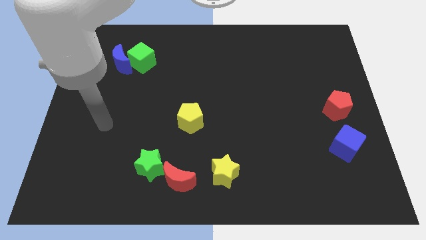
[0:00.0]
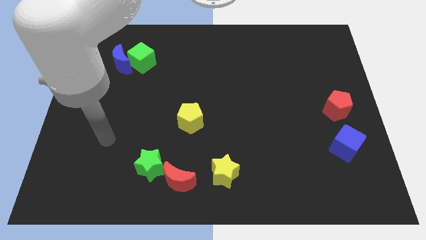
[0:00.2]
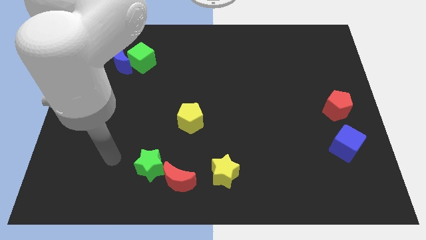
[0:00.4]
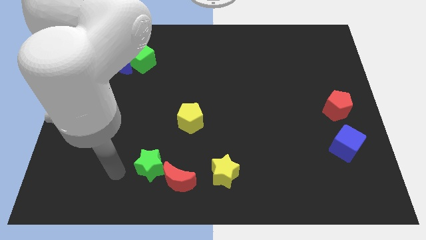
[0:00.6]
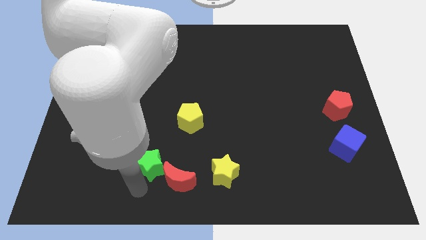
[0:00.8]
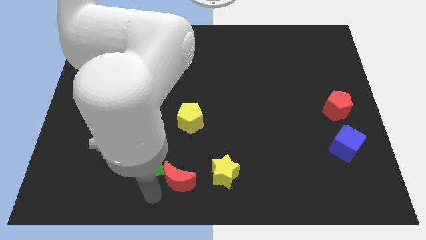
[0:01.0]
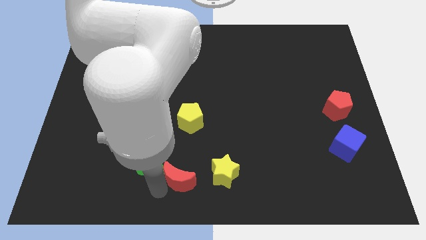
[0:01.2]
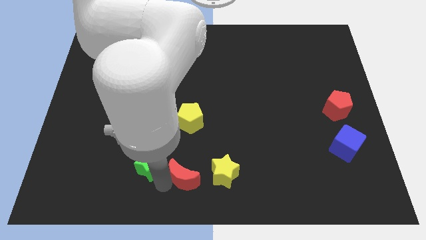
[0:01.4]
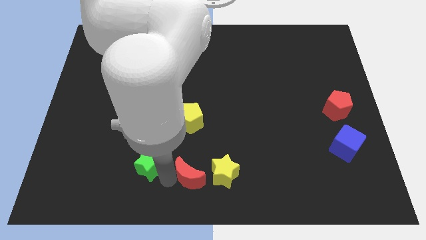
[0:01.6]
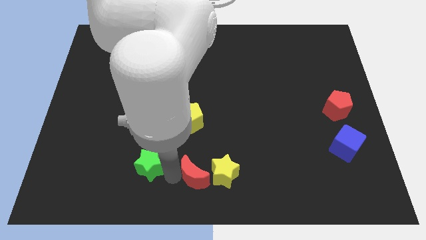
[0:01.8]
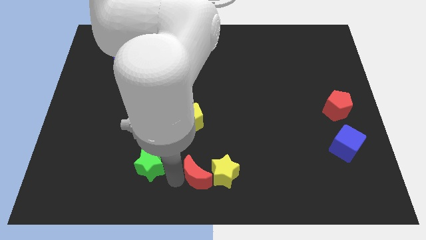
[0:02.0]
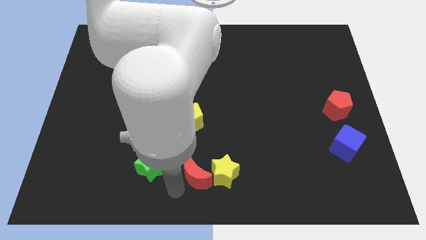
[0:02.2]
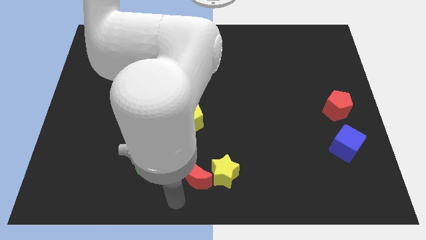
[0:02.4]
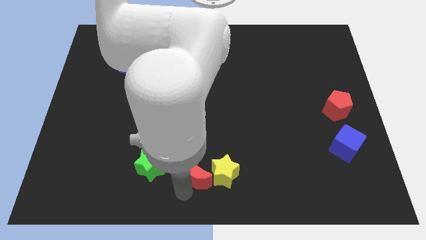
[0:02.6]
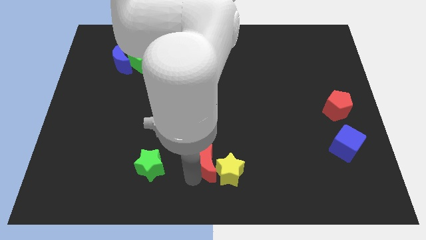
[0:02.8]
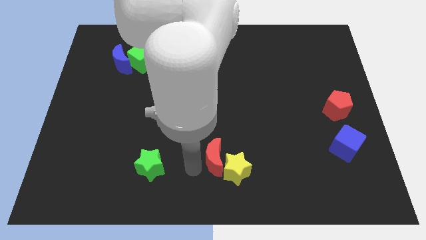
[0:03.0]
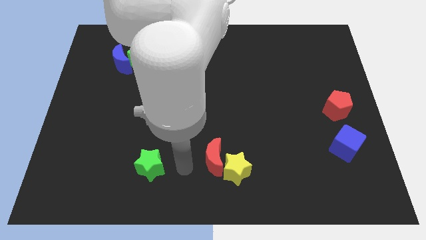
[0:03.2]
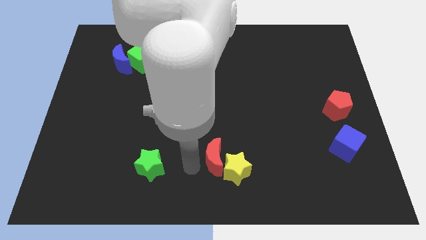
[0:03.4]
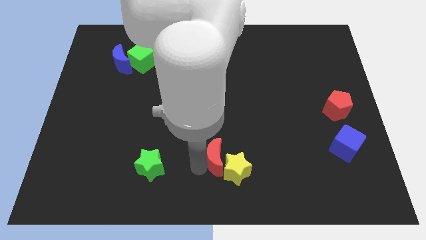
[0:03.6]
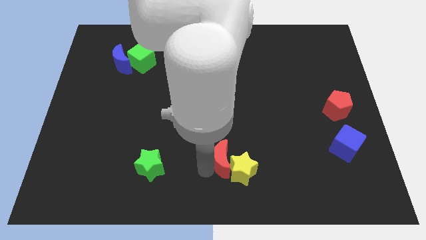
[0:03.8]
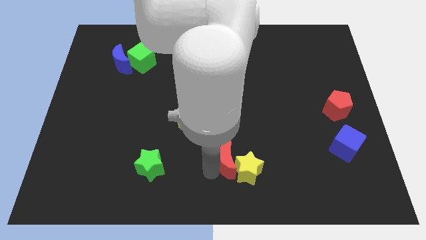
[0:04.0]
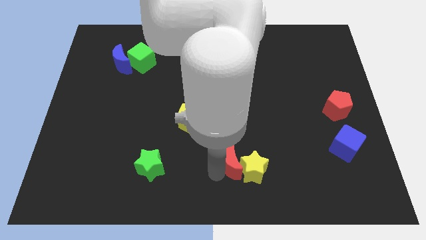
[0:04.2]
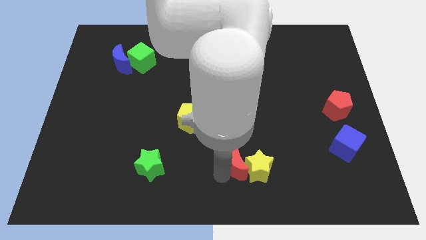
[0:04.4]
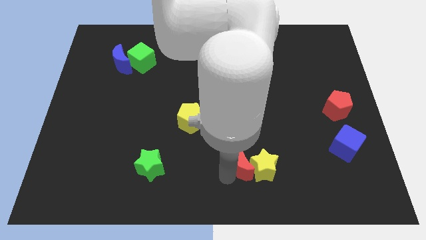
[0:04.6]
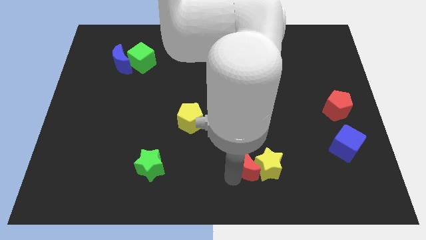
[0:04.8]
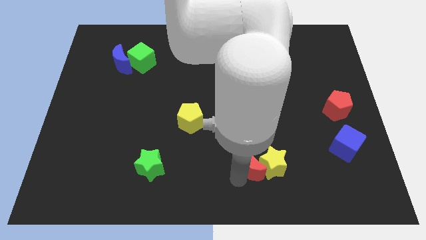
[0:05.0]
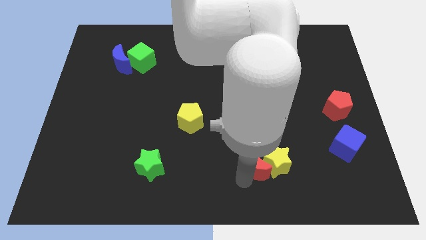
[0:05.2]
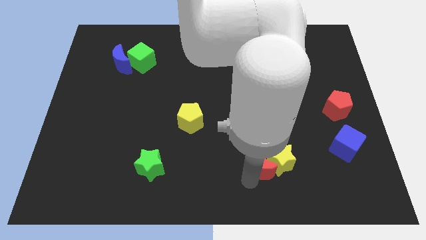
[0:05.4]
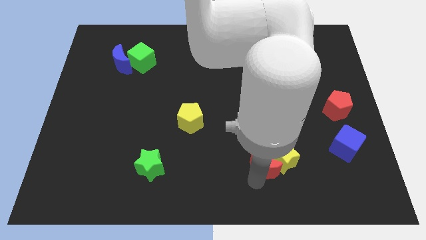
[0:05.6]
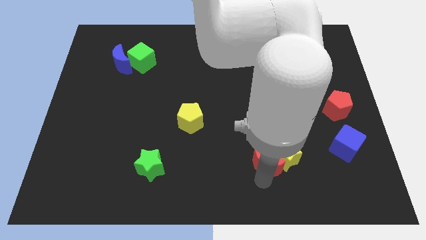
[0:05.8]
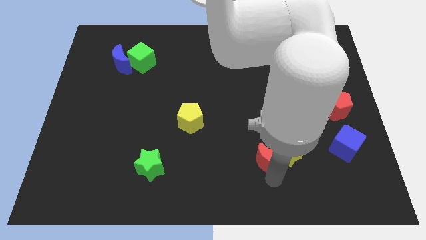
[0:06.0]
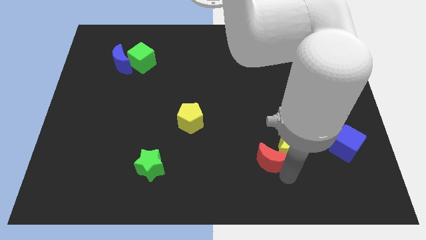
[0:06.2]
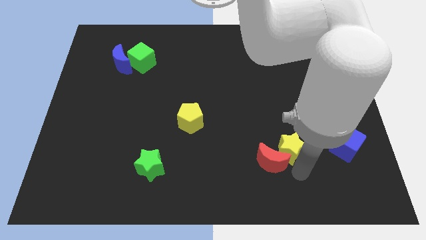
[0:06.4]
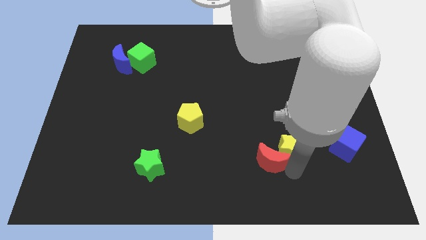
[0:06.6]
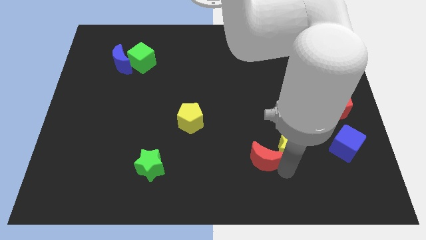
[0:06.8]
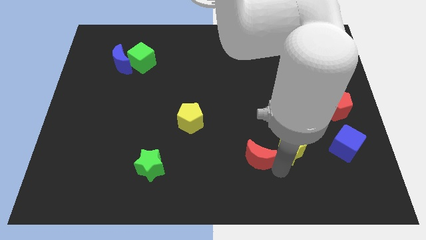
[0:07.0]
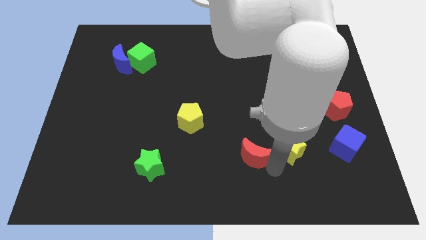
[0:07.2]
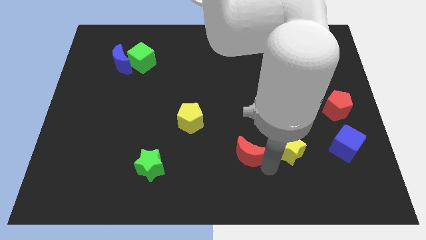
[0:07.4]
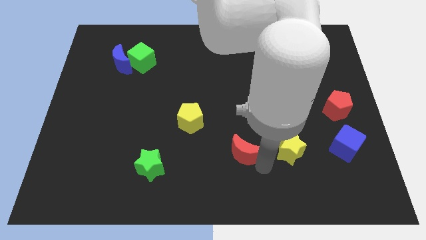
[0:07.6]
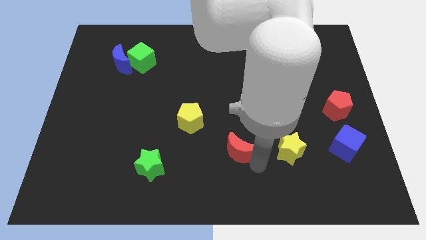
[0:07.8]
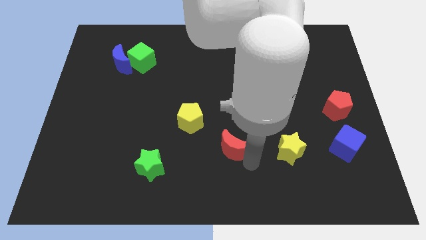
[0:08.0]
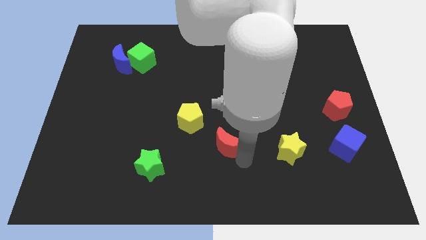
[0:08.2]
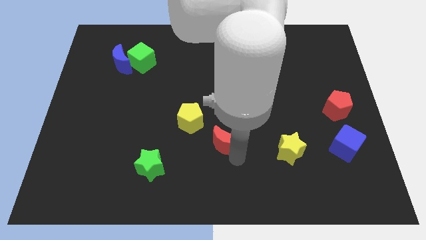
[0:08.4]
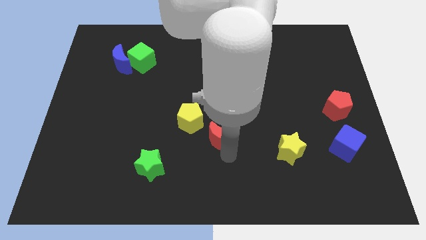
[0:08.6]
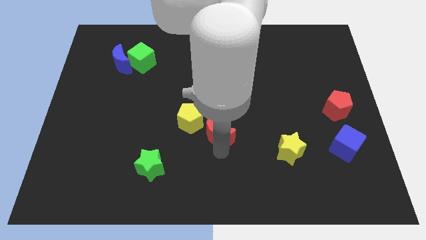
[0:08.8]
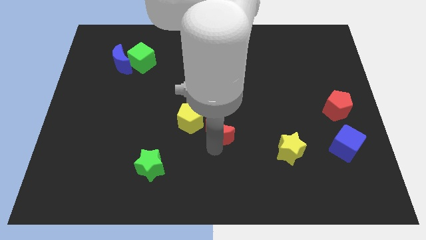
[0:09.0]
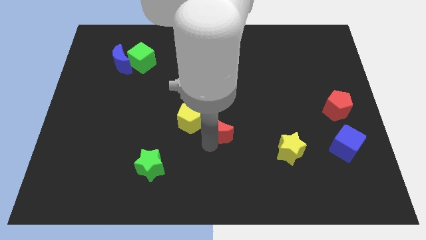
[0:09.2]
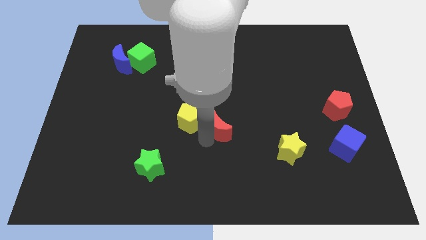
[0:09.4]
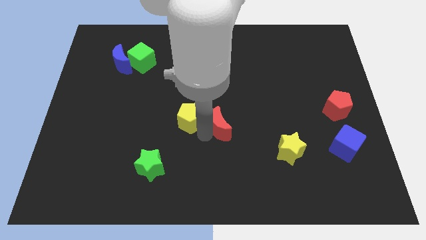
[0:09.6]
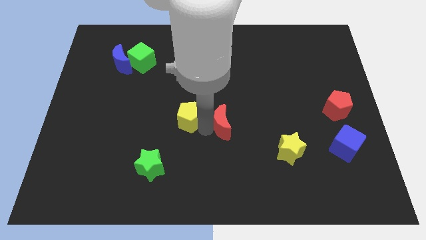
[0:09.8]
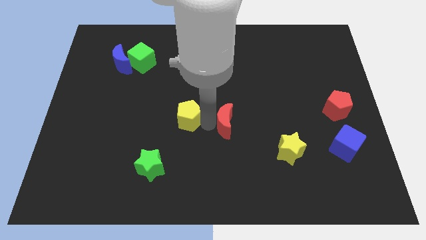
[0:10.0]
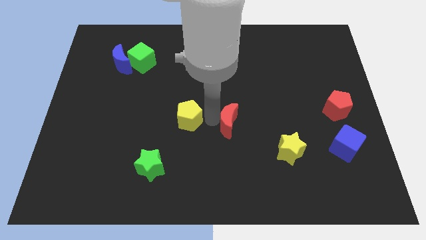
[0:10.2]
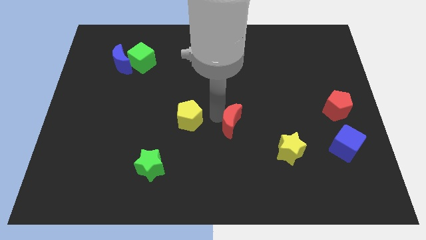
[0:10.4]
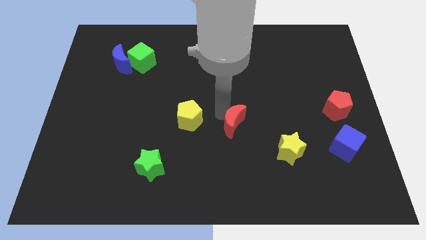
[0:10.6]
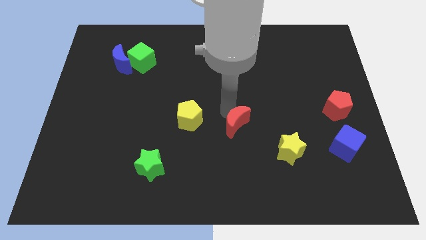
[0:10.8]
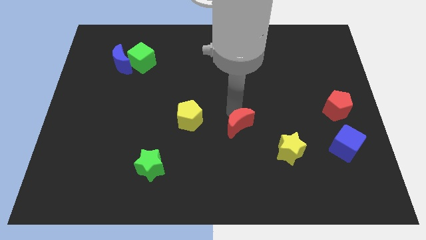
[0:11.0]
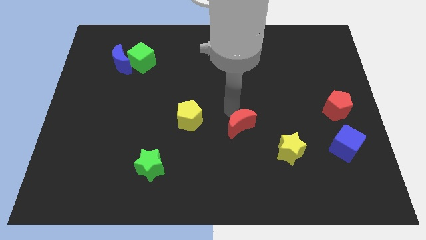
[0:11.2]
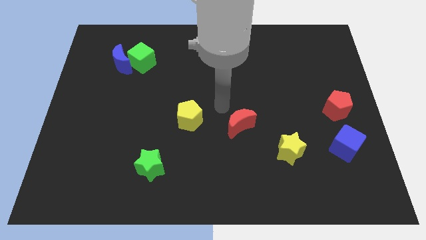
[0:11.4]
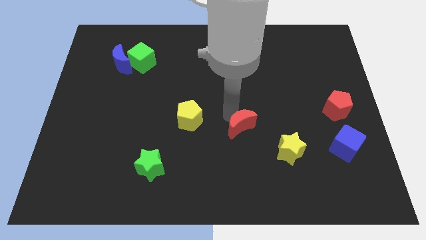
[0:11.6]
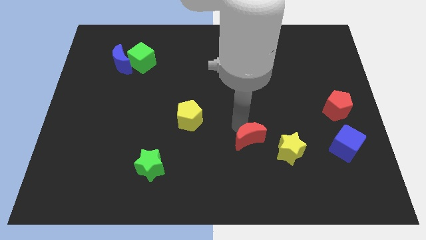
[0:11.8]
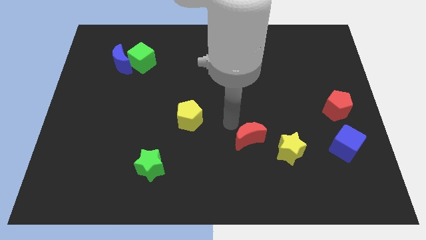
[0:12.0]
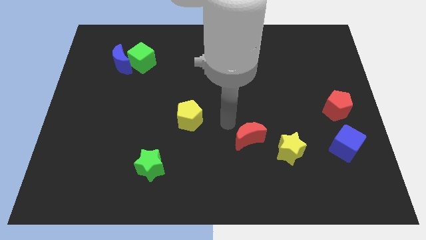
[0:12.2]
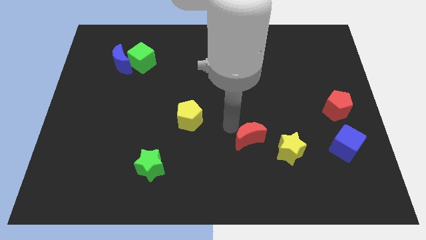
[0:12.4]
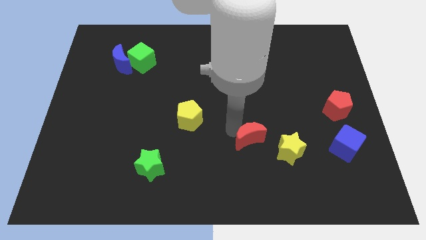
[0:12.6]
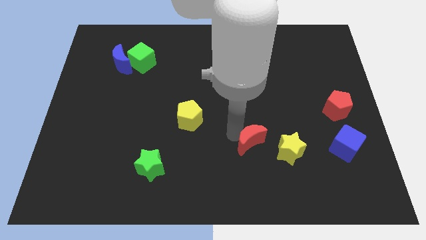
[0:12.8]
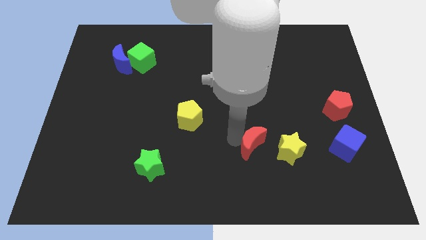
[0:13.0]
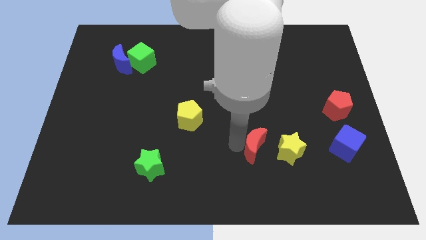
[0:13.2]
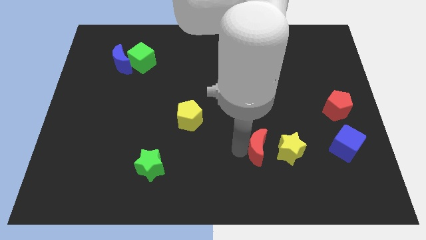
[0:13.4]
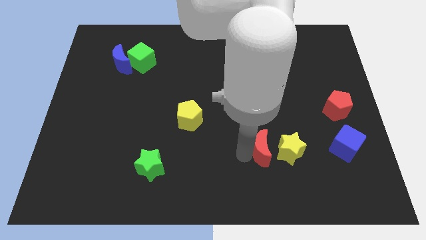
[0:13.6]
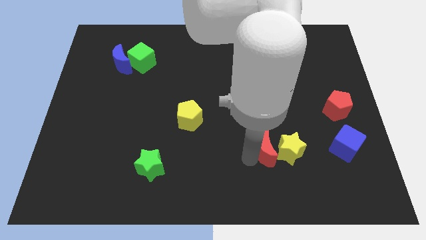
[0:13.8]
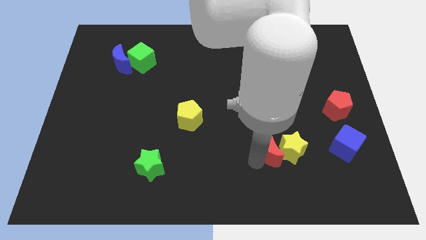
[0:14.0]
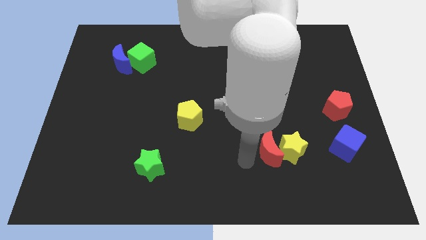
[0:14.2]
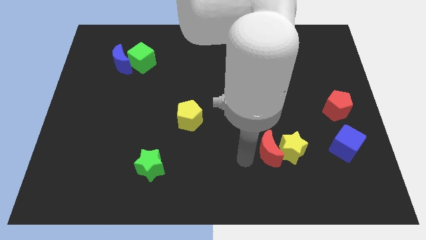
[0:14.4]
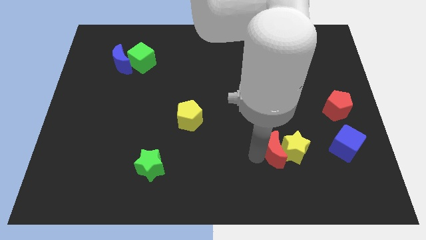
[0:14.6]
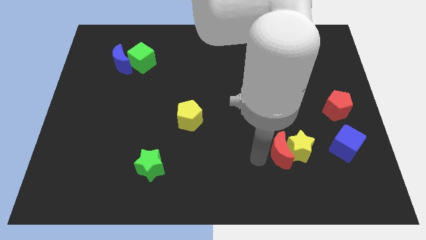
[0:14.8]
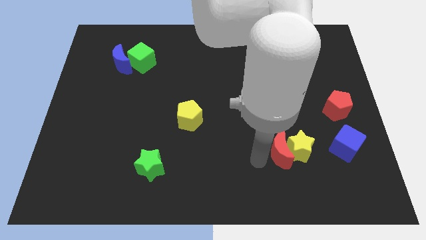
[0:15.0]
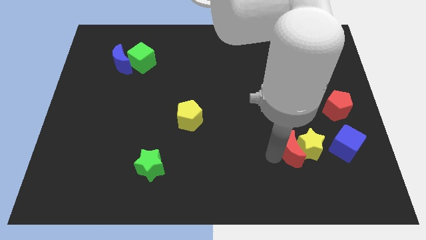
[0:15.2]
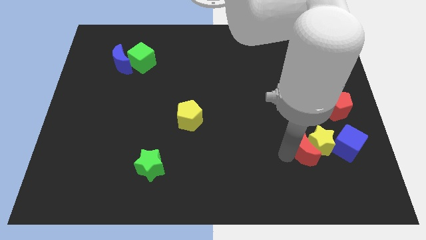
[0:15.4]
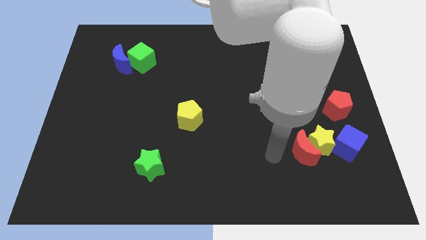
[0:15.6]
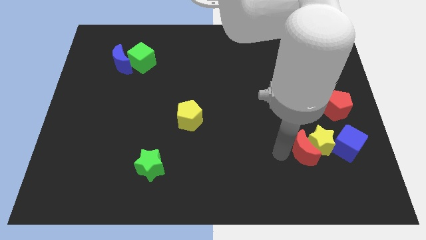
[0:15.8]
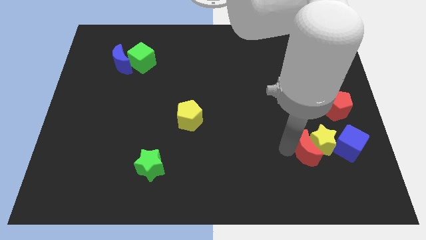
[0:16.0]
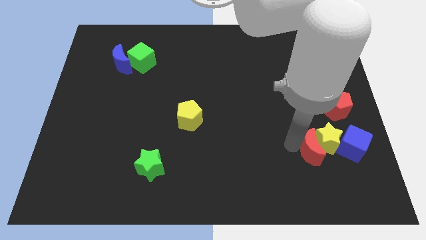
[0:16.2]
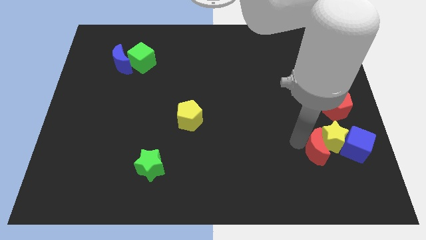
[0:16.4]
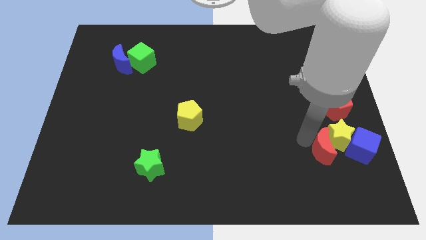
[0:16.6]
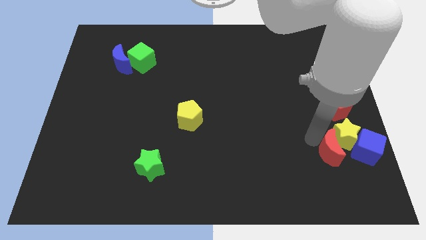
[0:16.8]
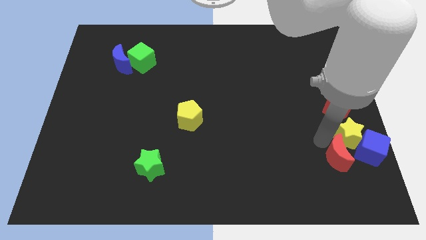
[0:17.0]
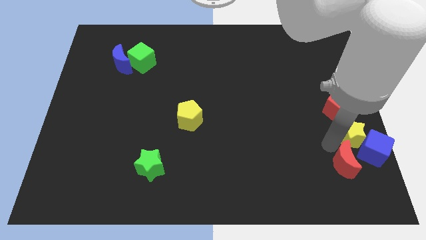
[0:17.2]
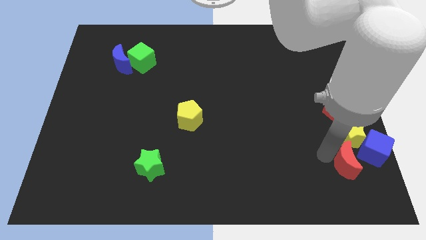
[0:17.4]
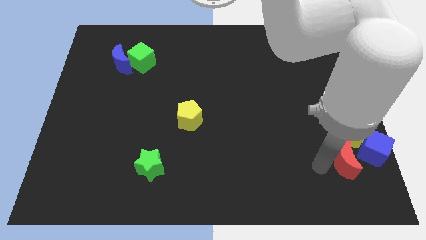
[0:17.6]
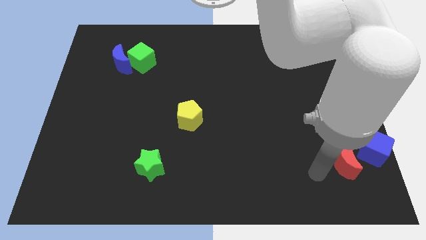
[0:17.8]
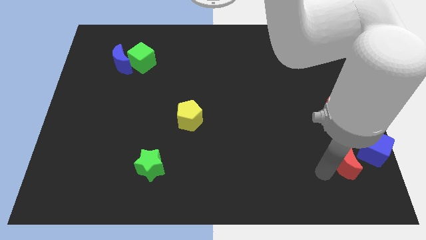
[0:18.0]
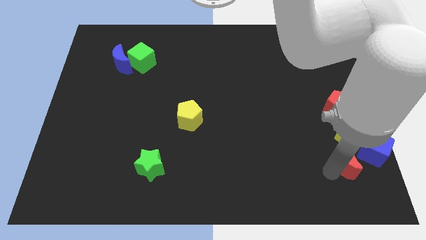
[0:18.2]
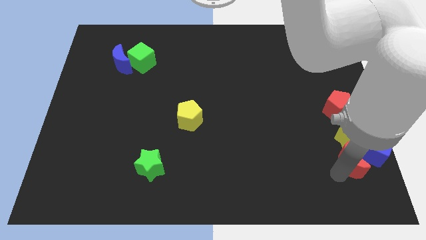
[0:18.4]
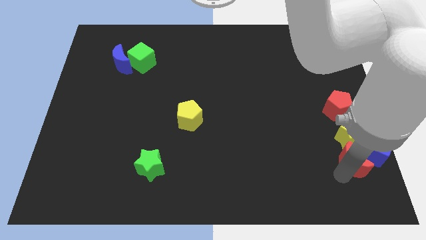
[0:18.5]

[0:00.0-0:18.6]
put the red moon close to the blue cube
